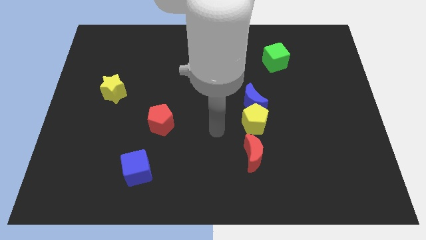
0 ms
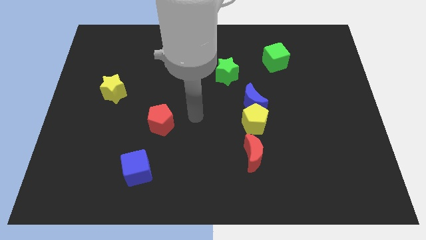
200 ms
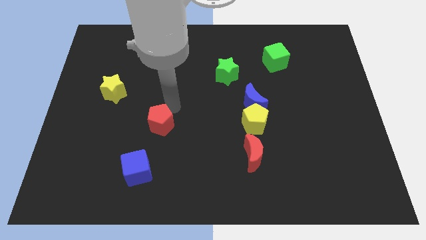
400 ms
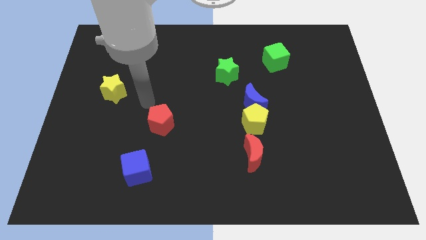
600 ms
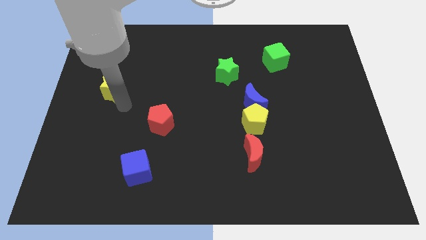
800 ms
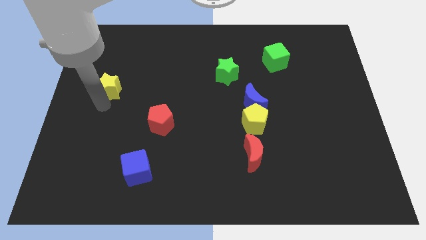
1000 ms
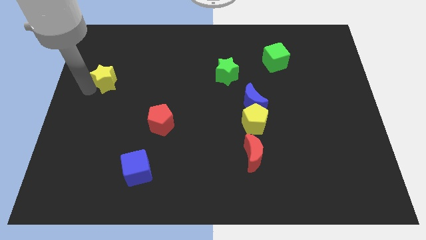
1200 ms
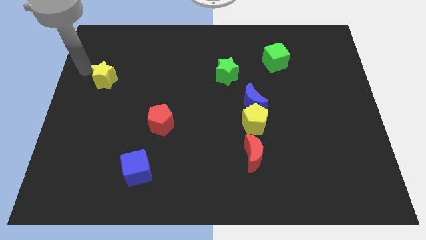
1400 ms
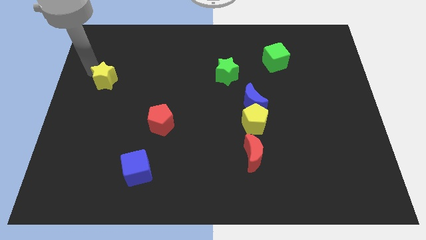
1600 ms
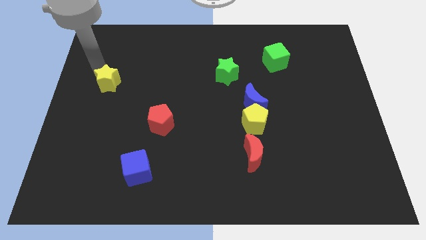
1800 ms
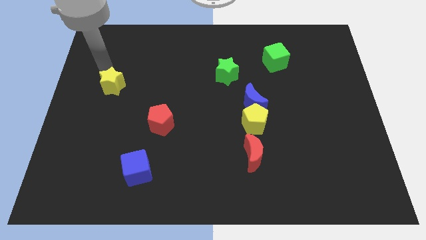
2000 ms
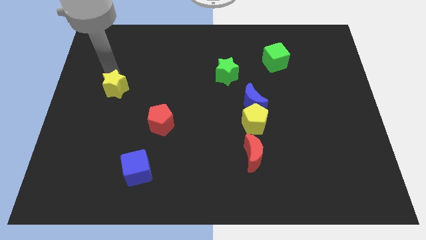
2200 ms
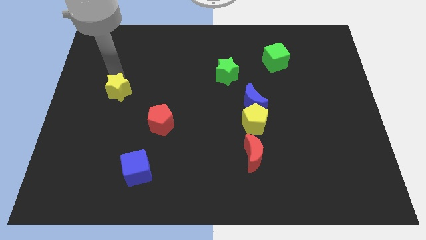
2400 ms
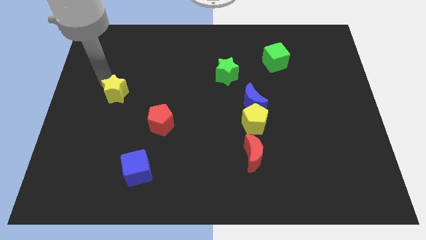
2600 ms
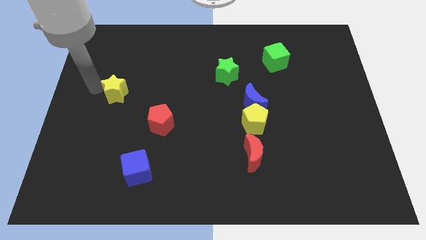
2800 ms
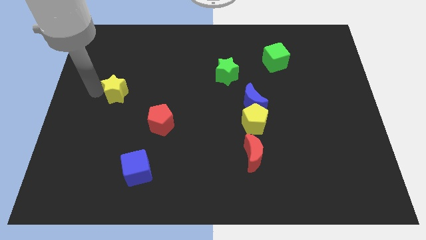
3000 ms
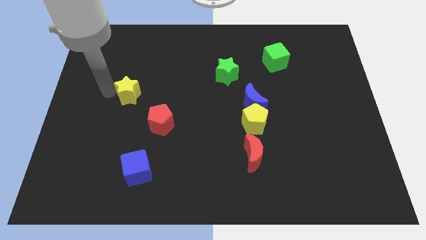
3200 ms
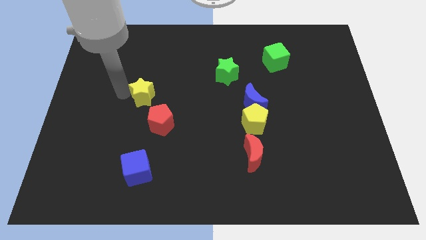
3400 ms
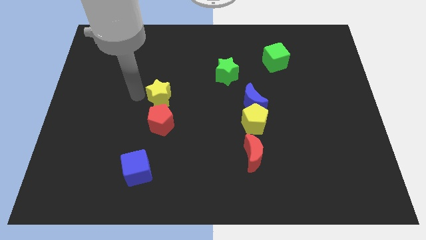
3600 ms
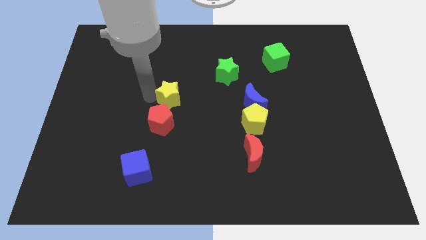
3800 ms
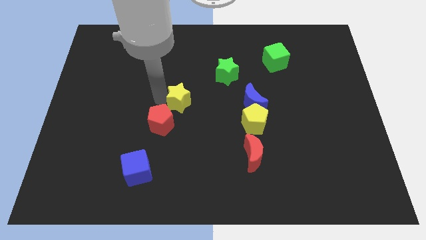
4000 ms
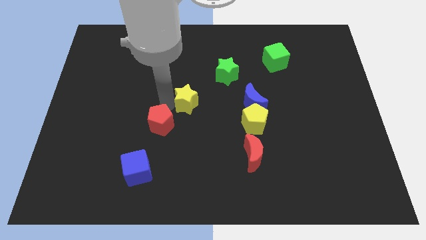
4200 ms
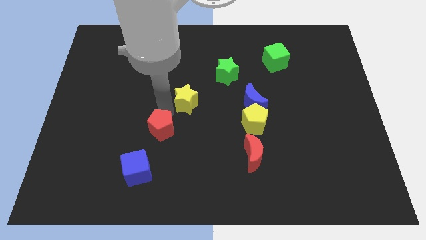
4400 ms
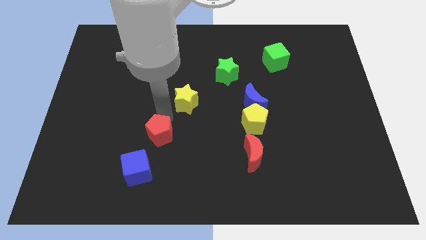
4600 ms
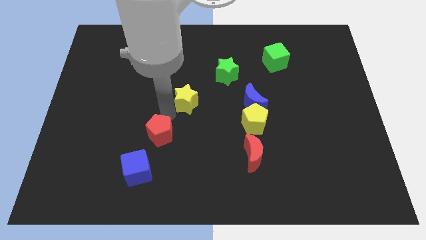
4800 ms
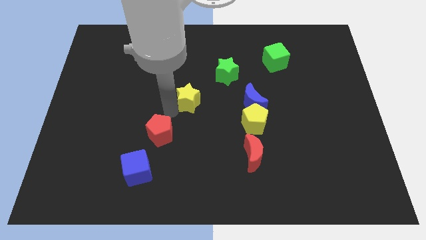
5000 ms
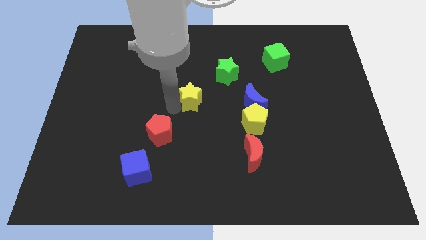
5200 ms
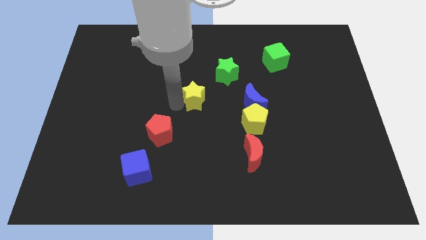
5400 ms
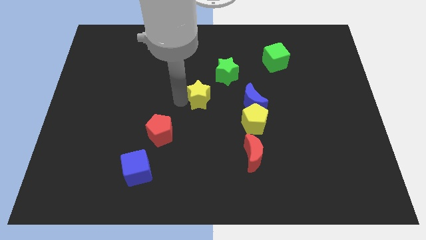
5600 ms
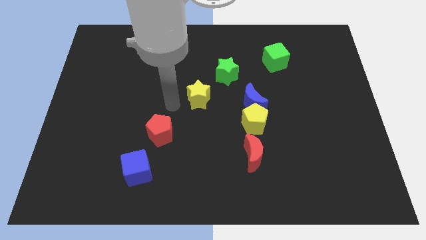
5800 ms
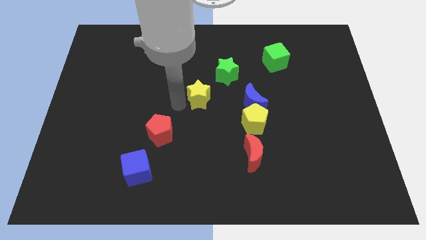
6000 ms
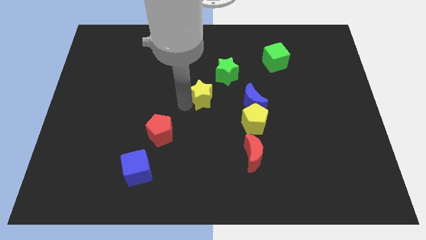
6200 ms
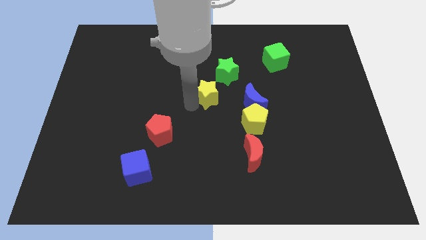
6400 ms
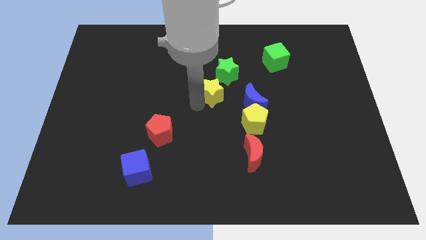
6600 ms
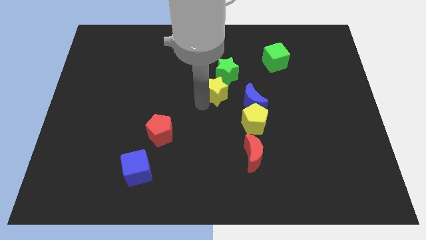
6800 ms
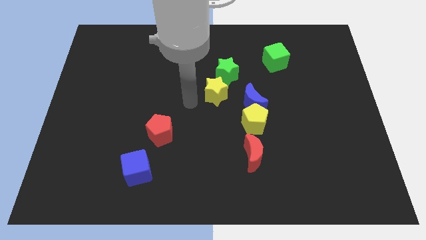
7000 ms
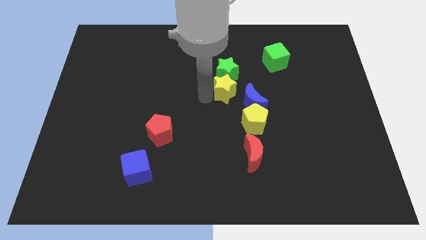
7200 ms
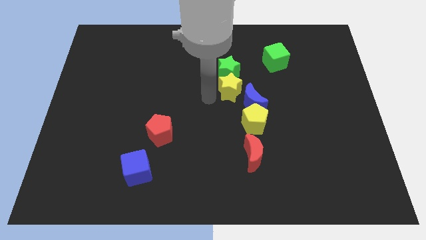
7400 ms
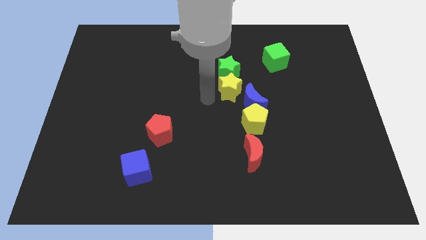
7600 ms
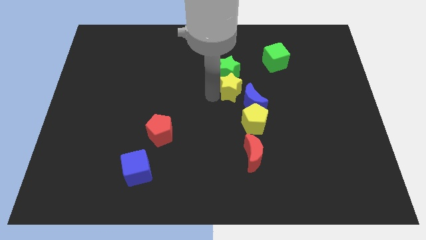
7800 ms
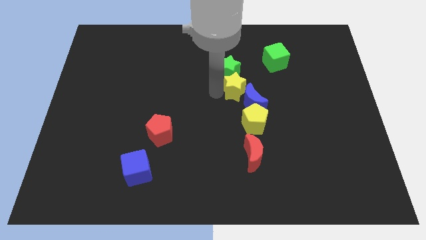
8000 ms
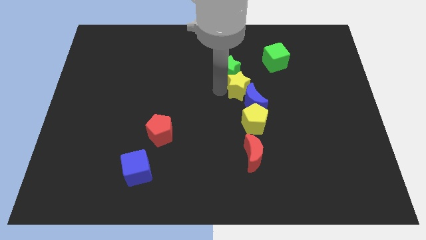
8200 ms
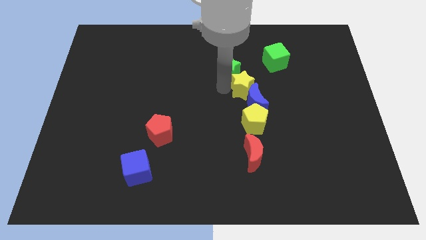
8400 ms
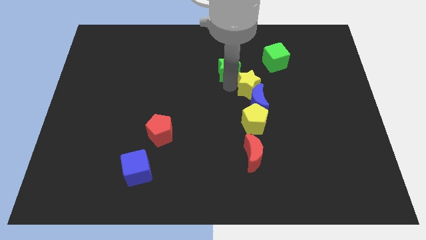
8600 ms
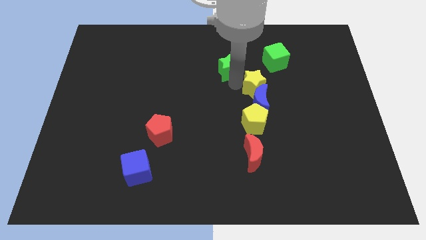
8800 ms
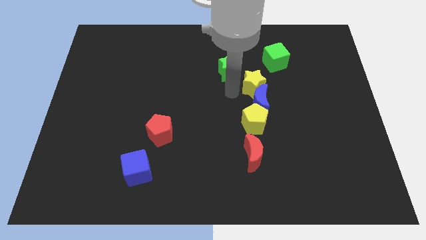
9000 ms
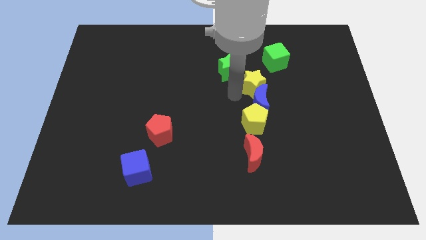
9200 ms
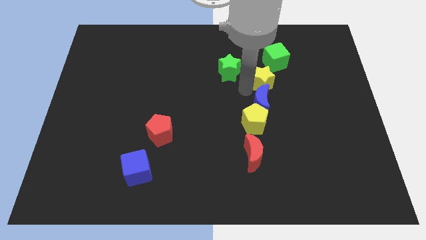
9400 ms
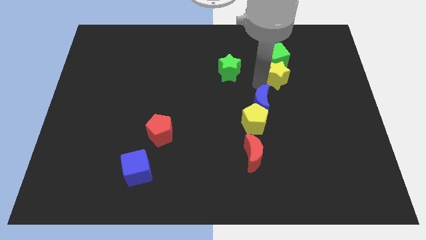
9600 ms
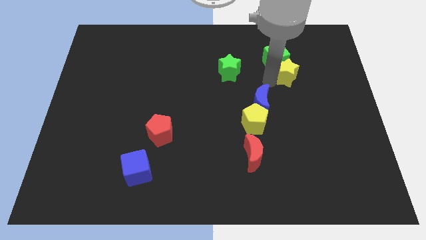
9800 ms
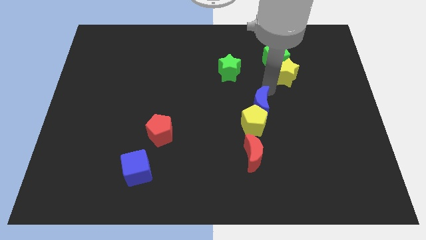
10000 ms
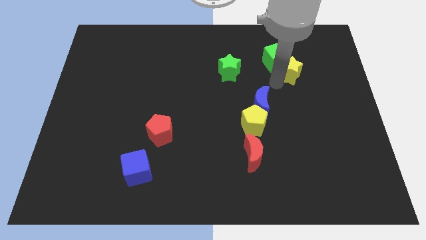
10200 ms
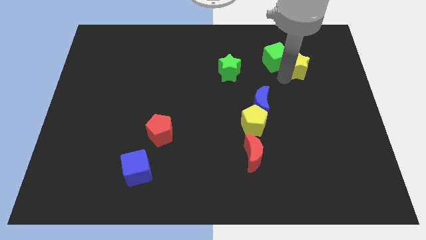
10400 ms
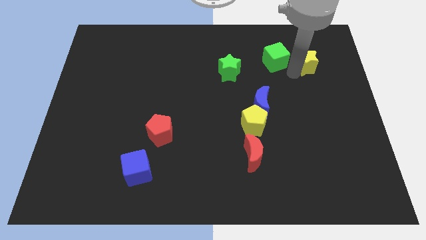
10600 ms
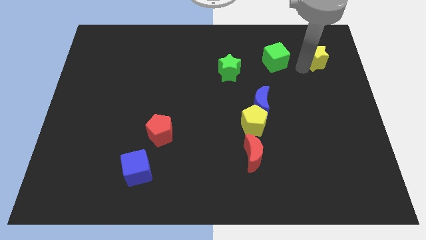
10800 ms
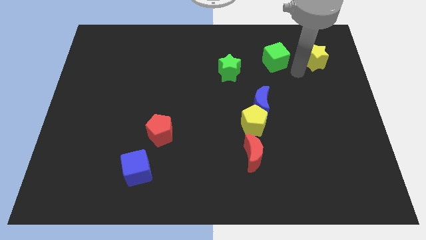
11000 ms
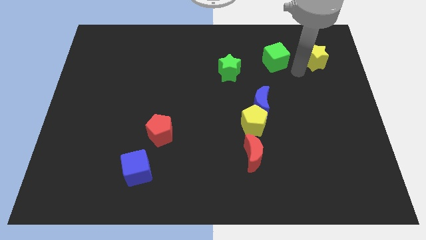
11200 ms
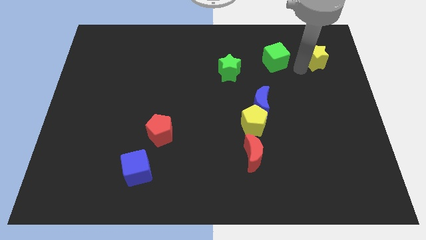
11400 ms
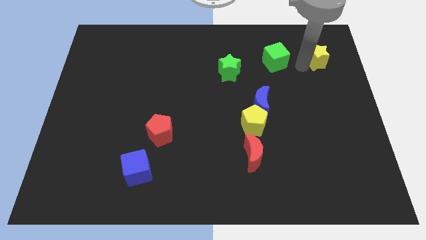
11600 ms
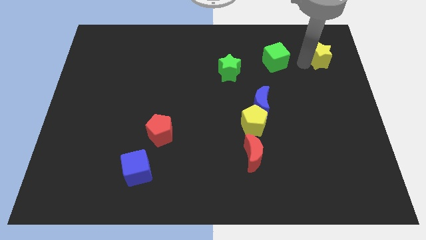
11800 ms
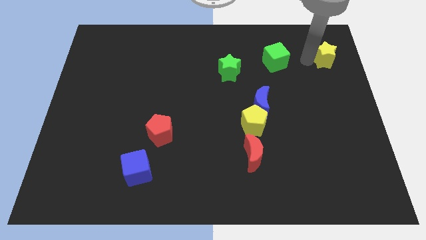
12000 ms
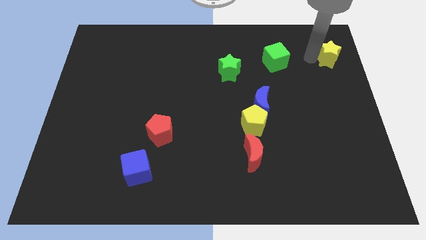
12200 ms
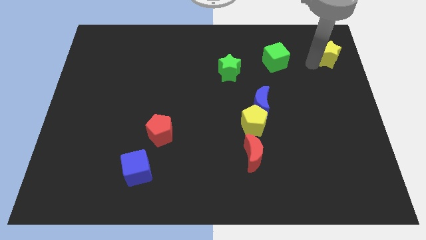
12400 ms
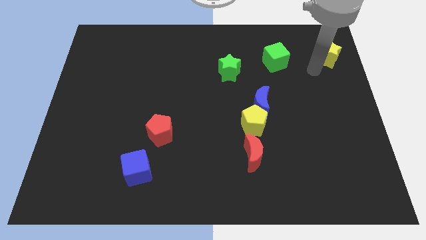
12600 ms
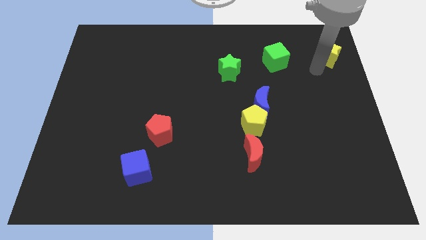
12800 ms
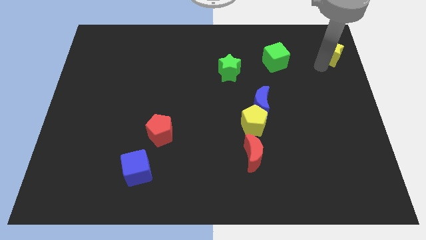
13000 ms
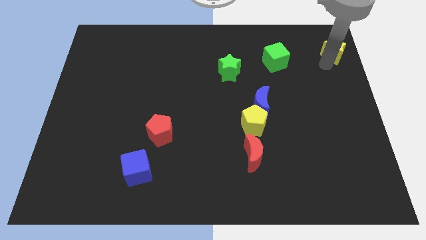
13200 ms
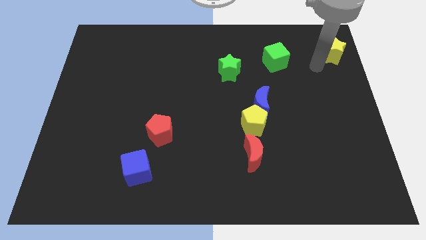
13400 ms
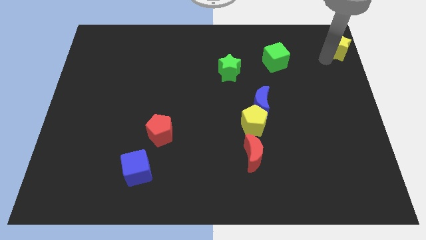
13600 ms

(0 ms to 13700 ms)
slide the yellow star to the top right
